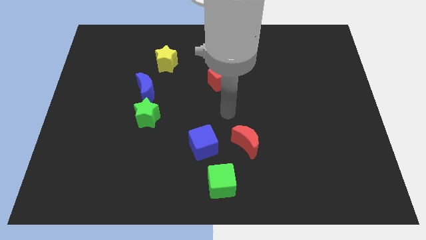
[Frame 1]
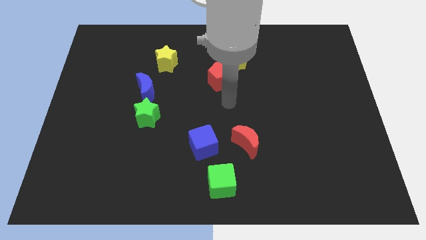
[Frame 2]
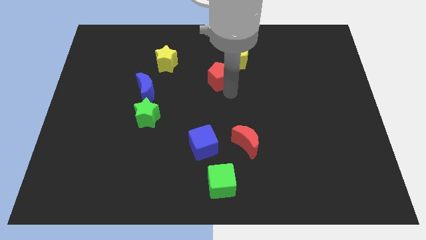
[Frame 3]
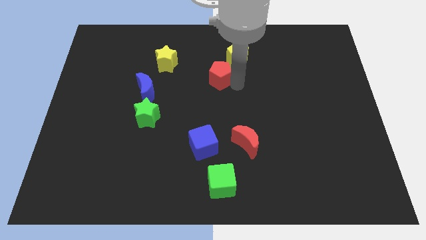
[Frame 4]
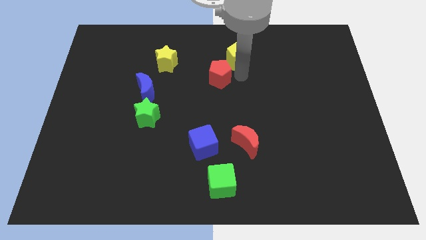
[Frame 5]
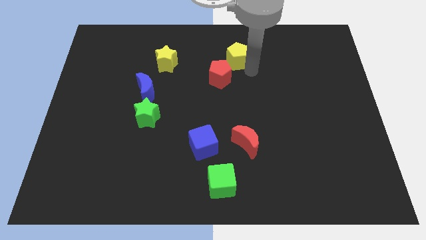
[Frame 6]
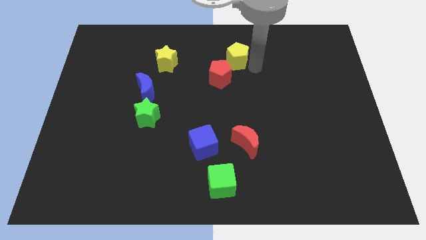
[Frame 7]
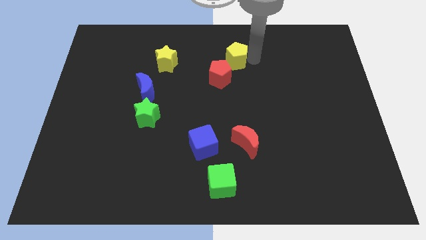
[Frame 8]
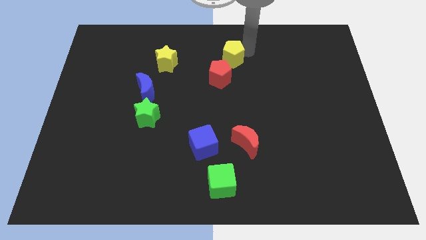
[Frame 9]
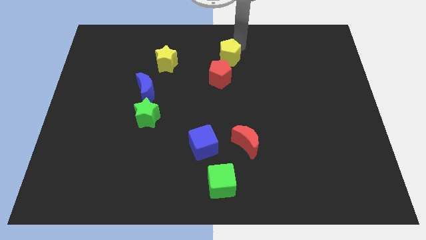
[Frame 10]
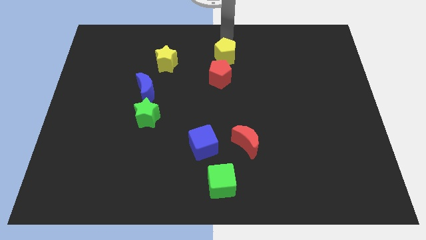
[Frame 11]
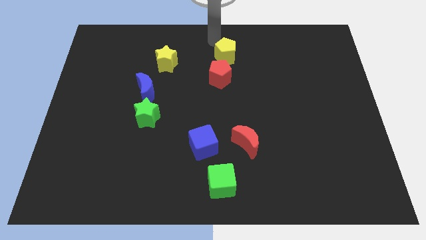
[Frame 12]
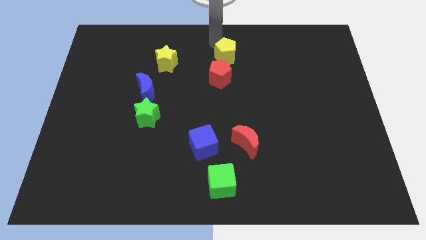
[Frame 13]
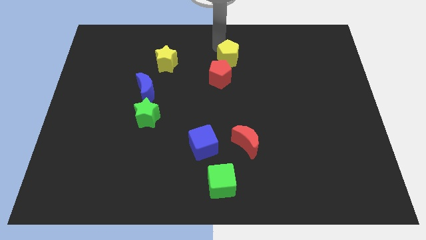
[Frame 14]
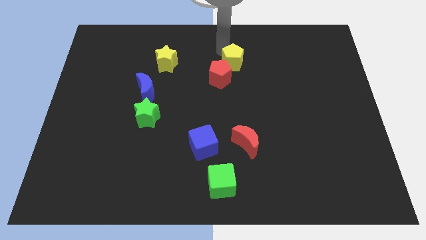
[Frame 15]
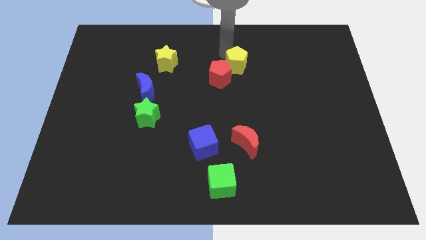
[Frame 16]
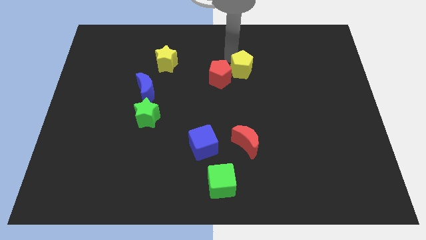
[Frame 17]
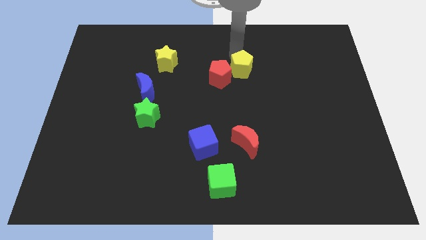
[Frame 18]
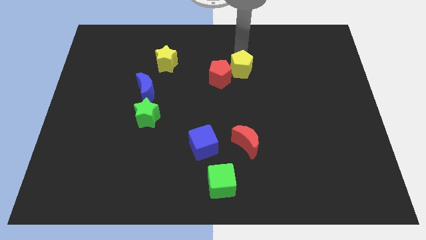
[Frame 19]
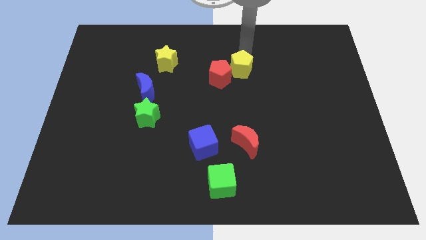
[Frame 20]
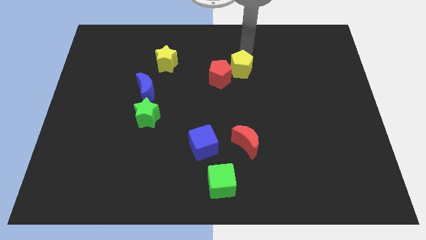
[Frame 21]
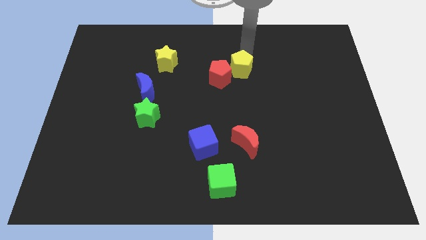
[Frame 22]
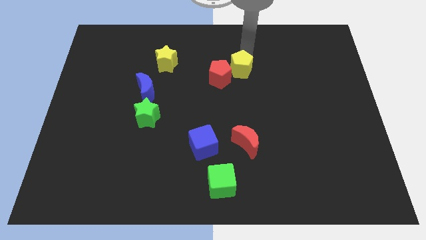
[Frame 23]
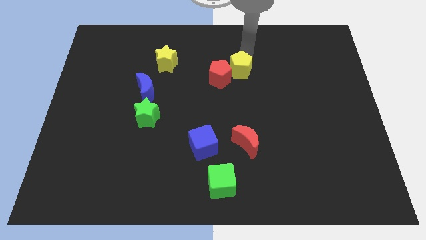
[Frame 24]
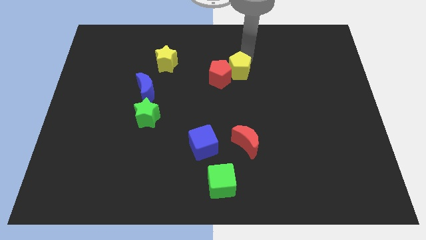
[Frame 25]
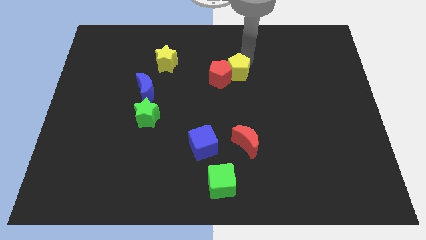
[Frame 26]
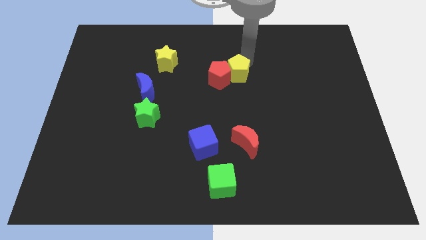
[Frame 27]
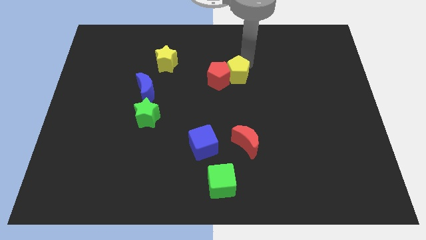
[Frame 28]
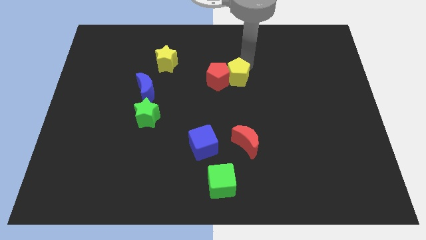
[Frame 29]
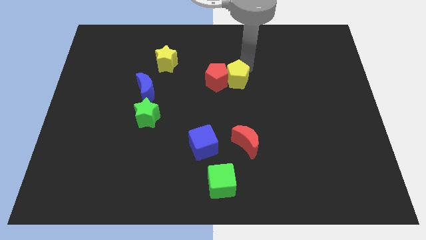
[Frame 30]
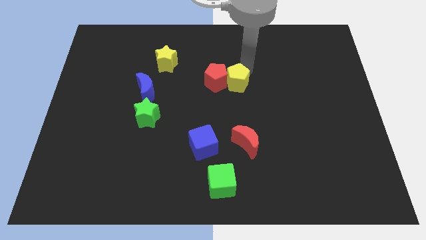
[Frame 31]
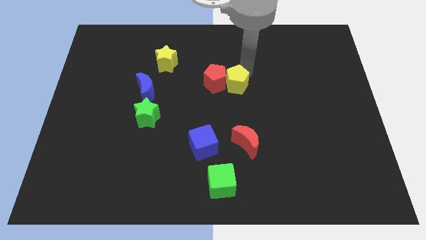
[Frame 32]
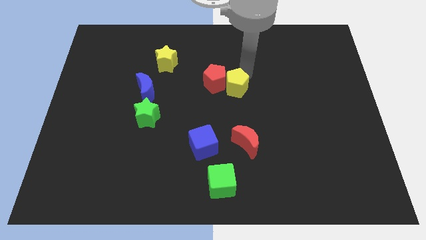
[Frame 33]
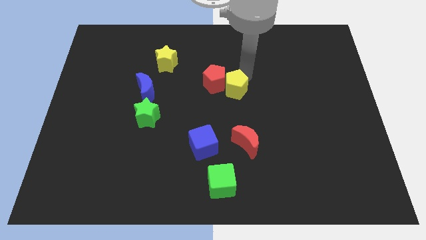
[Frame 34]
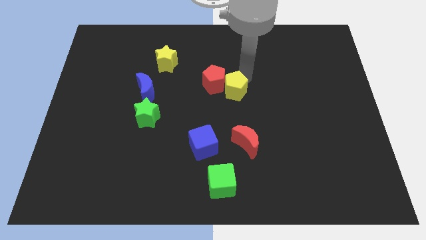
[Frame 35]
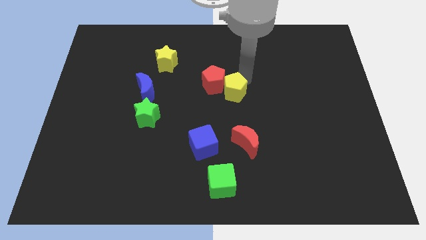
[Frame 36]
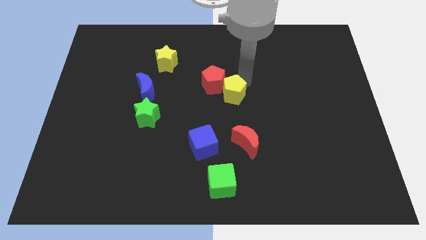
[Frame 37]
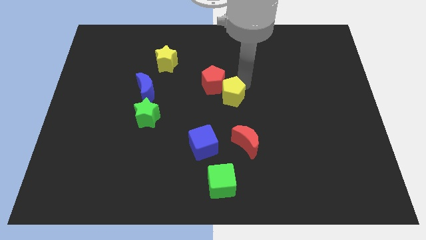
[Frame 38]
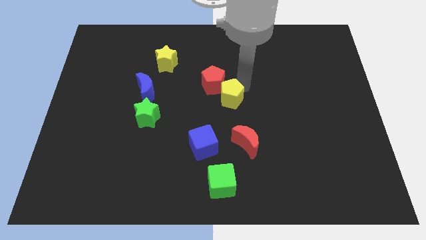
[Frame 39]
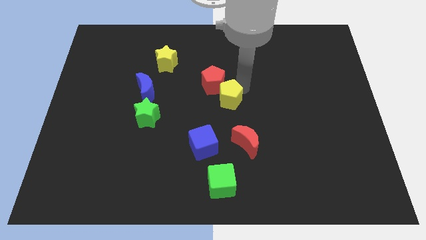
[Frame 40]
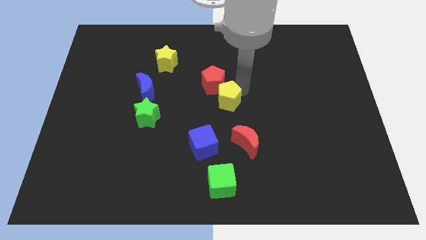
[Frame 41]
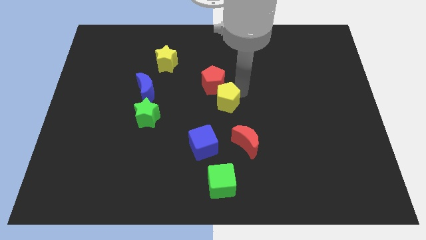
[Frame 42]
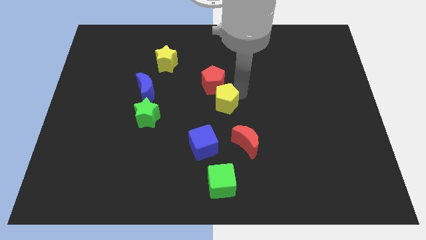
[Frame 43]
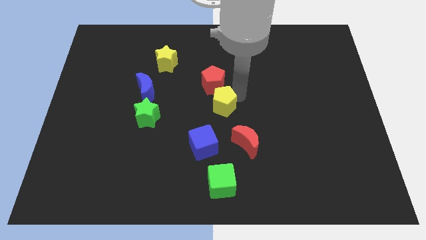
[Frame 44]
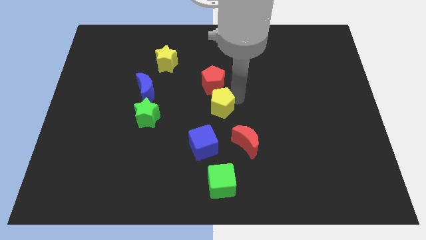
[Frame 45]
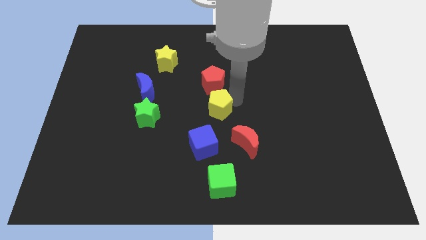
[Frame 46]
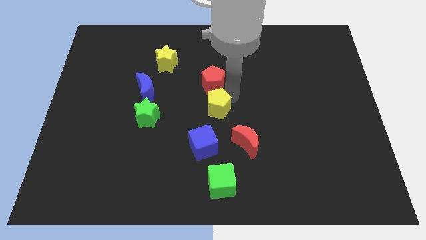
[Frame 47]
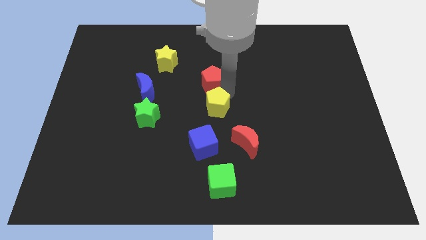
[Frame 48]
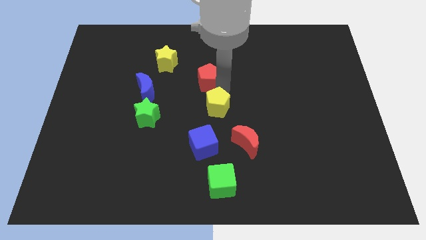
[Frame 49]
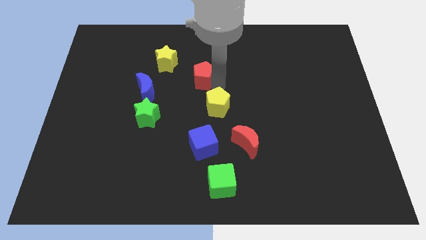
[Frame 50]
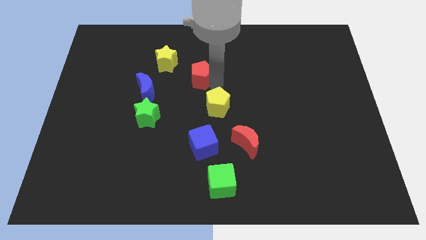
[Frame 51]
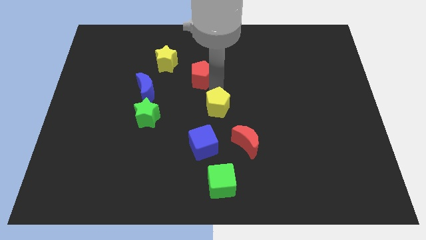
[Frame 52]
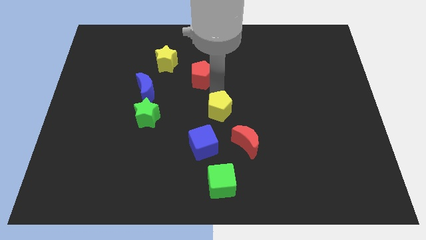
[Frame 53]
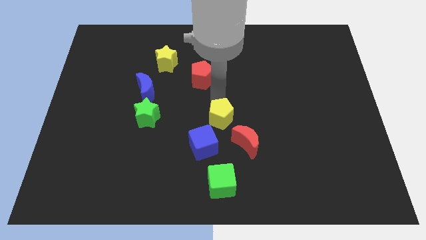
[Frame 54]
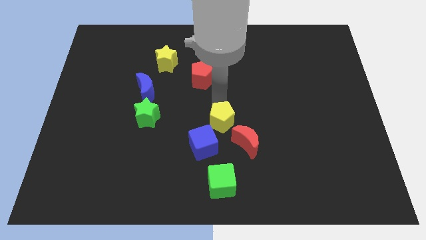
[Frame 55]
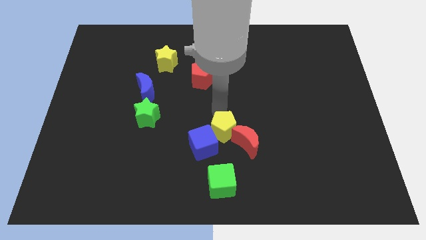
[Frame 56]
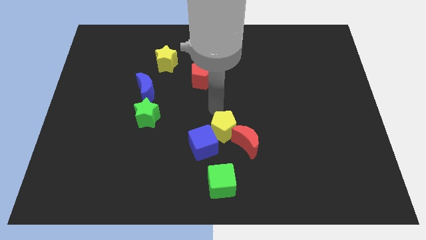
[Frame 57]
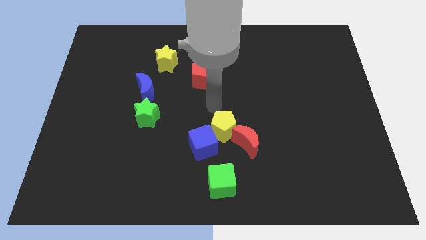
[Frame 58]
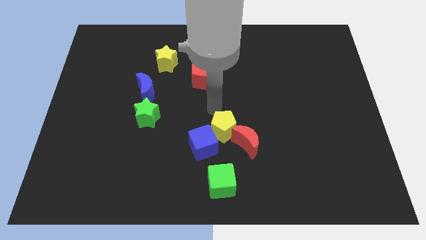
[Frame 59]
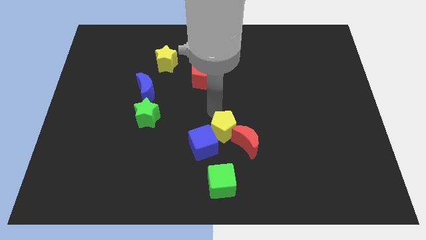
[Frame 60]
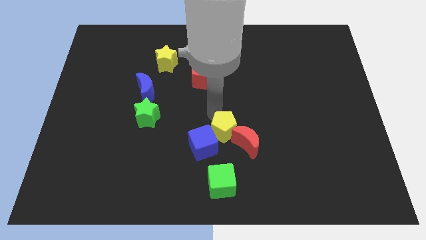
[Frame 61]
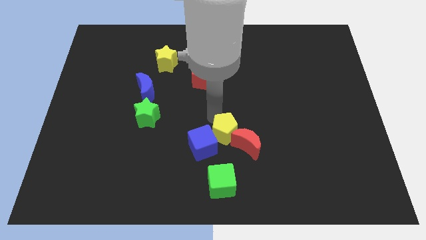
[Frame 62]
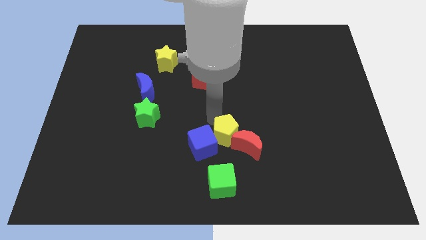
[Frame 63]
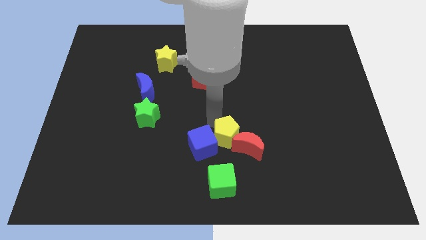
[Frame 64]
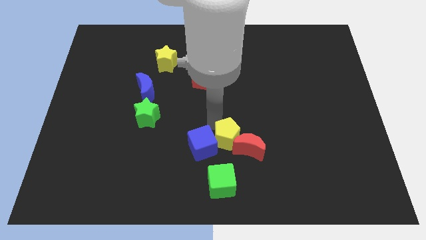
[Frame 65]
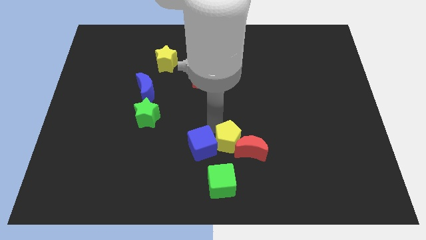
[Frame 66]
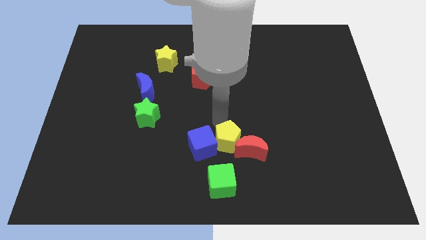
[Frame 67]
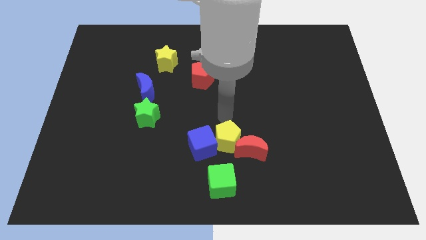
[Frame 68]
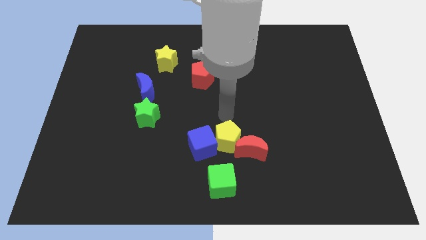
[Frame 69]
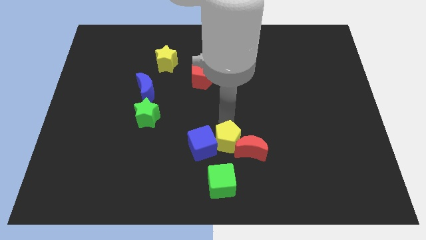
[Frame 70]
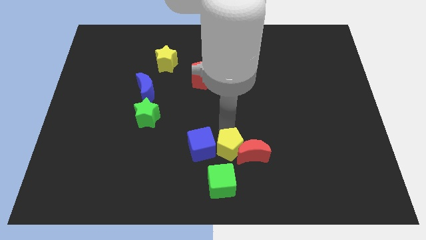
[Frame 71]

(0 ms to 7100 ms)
put the yellow pentagon to the bottom left side of the red moon
